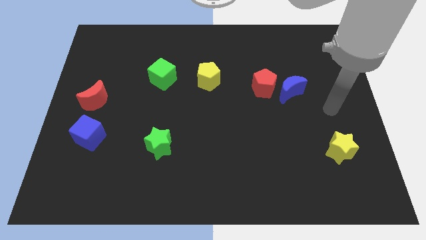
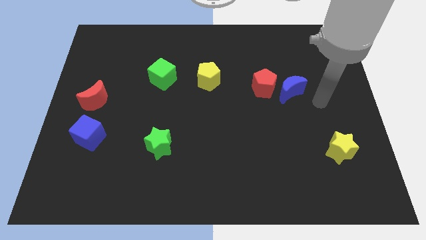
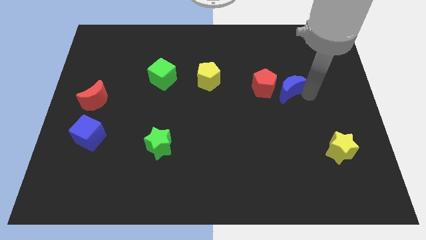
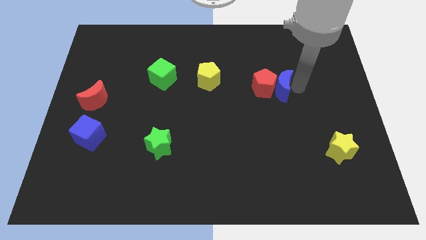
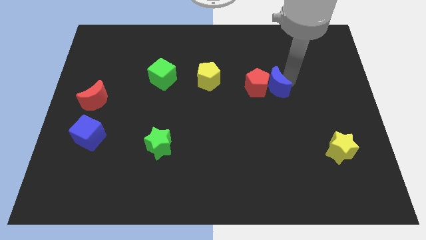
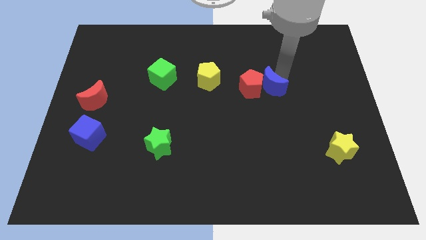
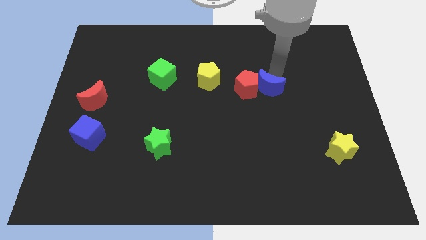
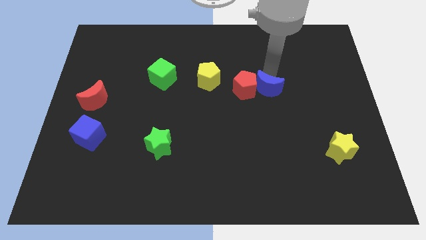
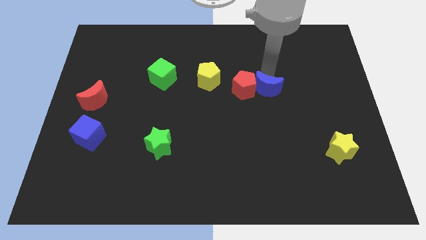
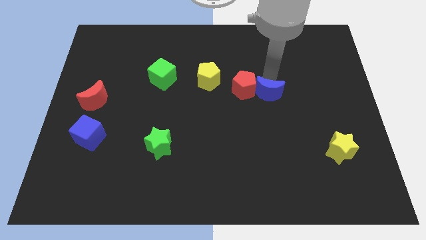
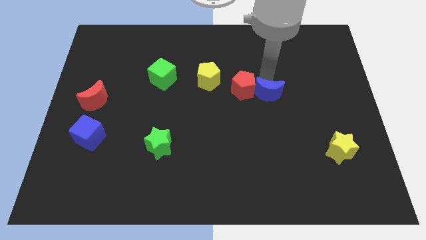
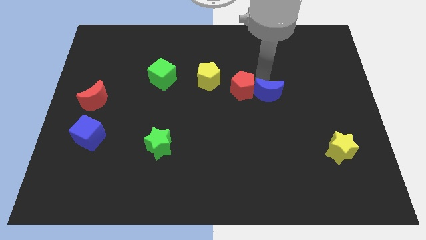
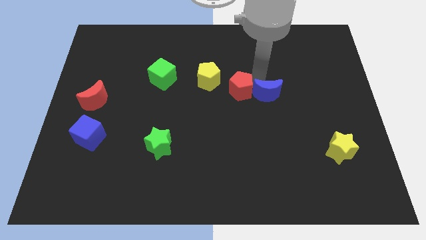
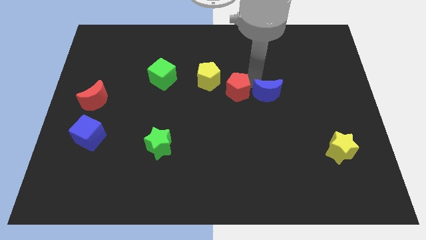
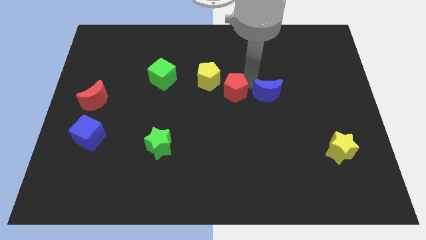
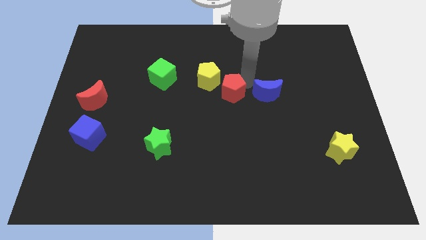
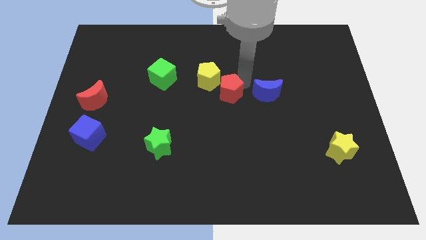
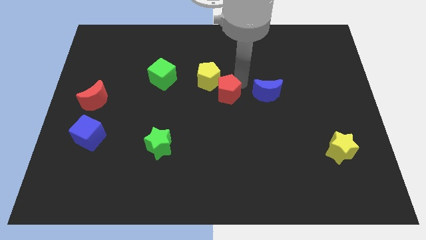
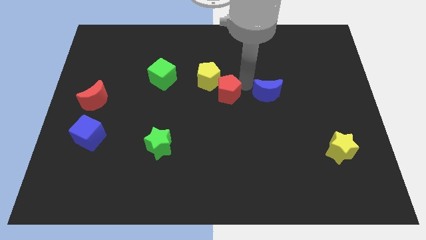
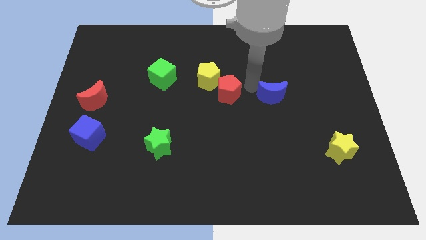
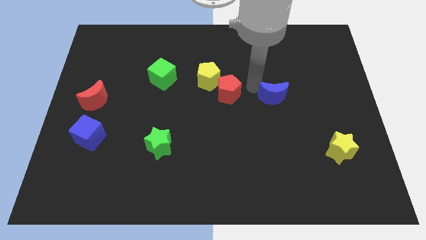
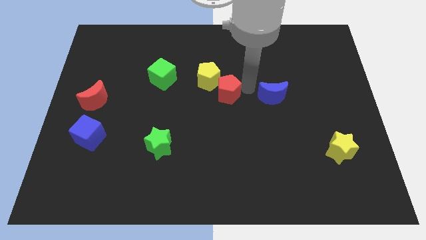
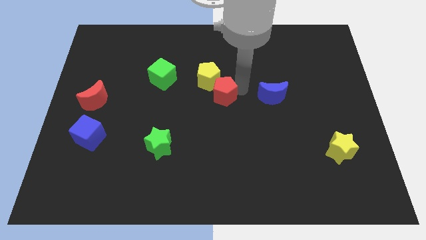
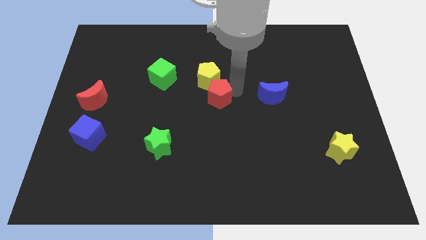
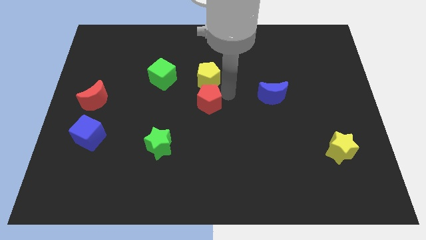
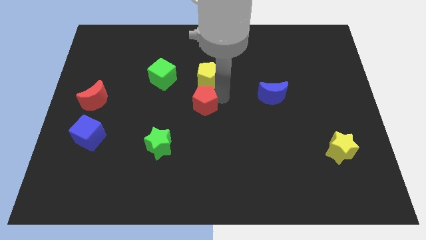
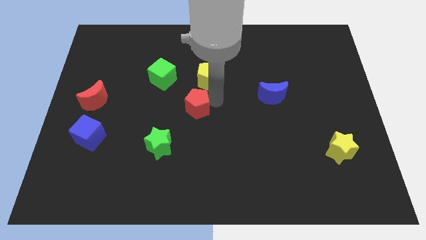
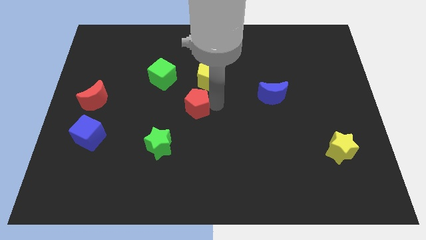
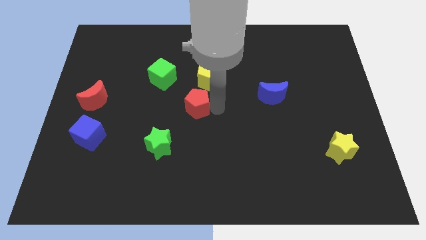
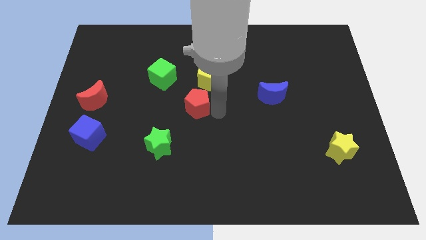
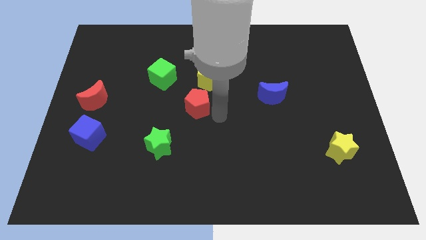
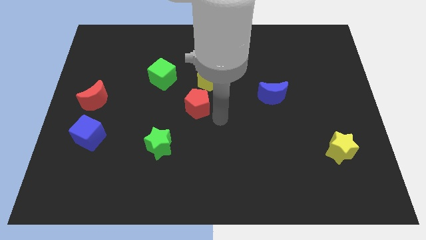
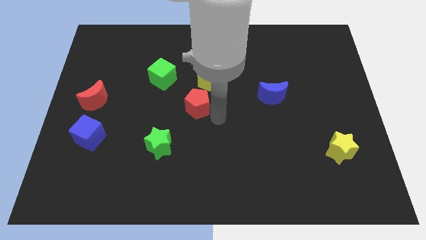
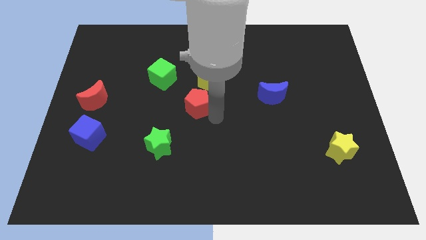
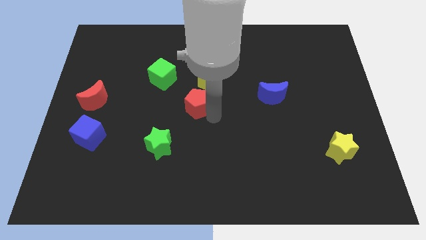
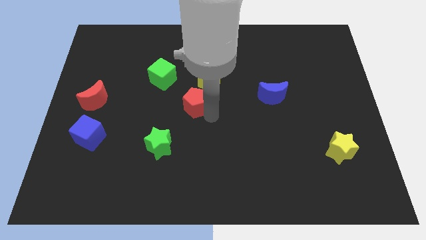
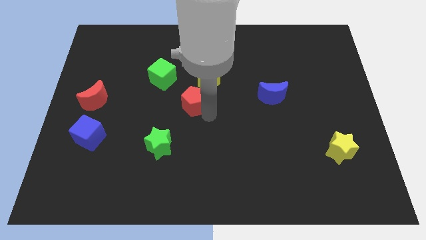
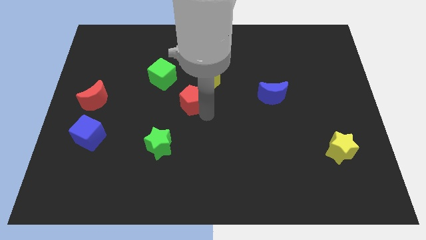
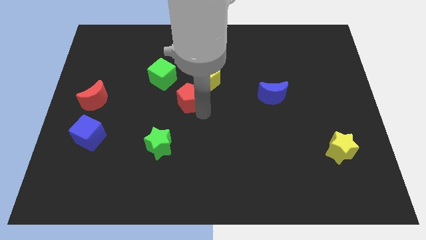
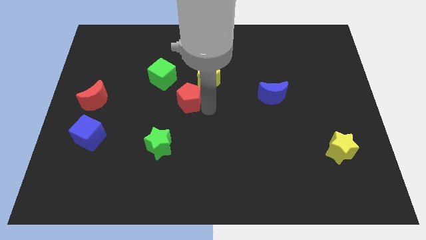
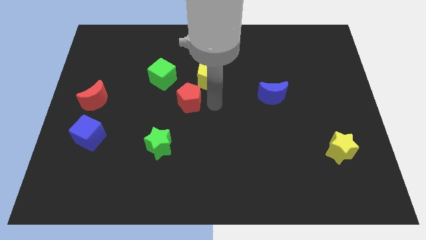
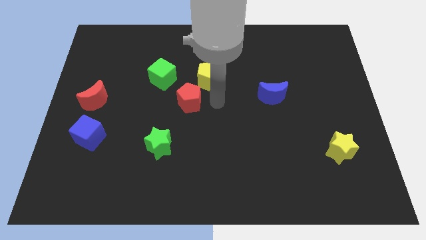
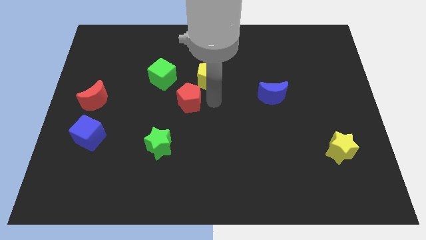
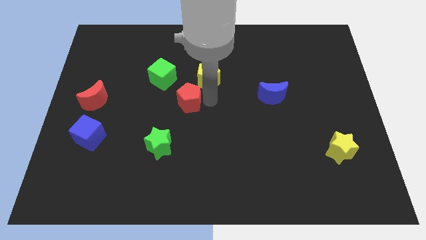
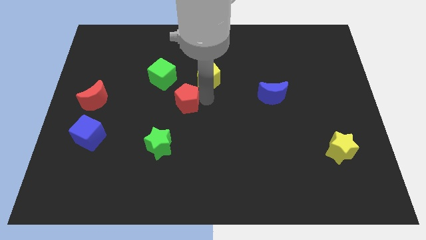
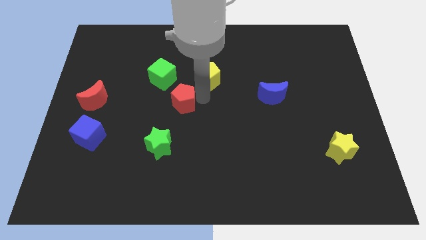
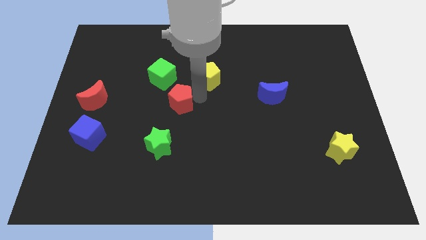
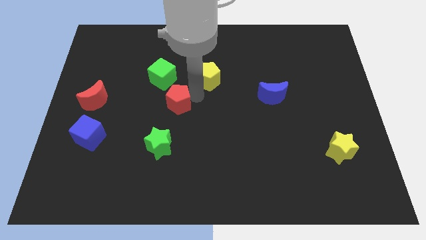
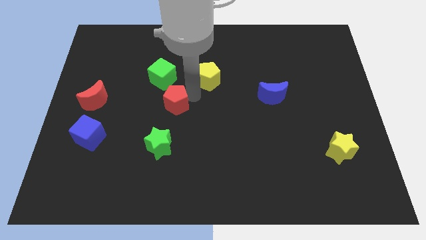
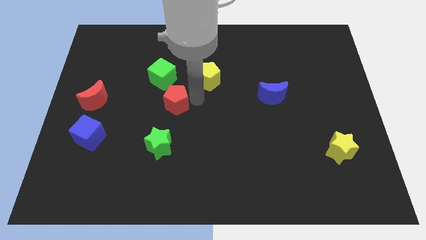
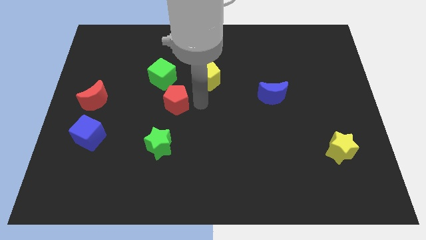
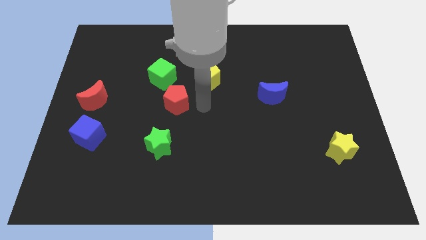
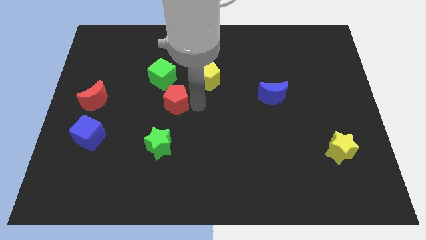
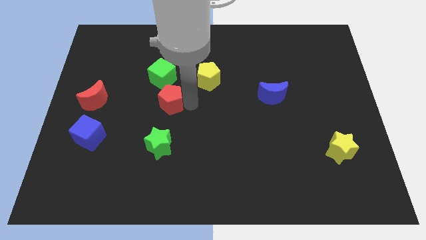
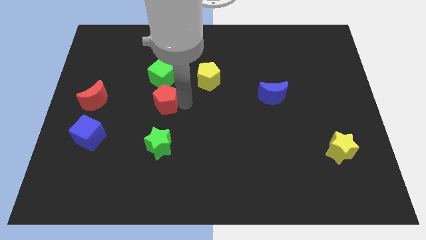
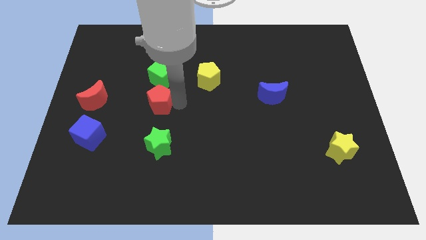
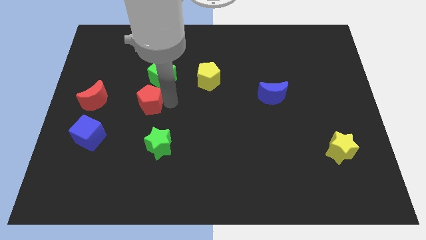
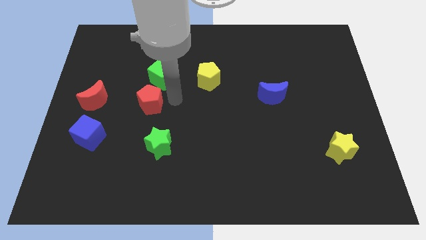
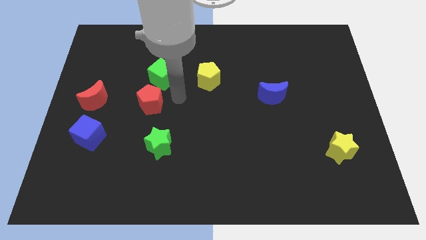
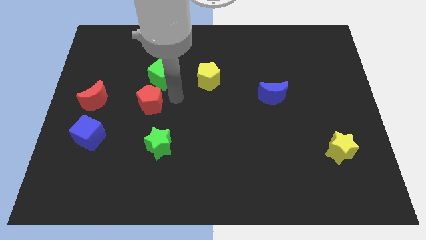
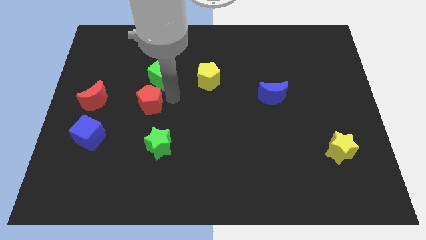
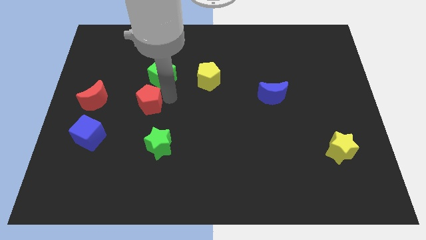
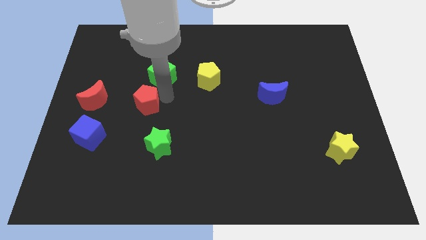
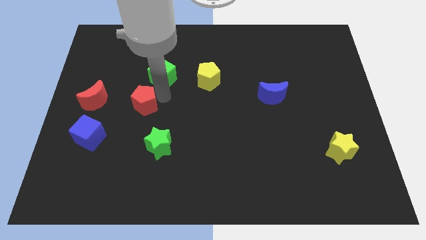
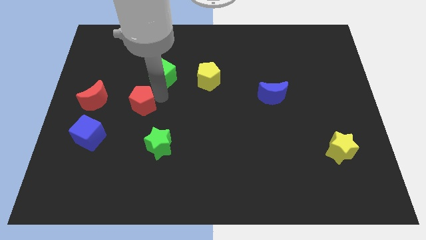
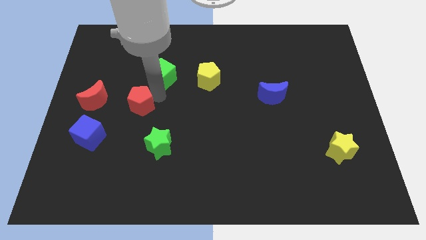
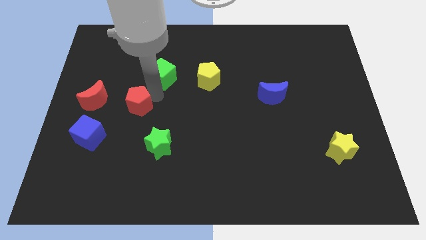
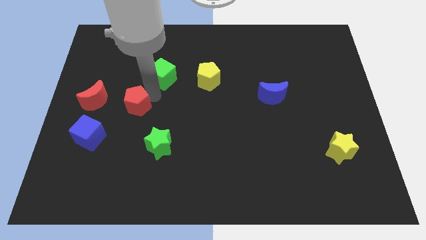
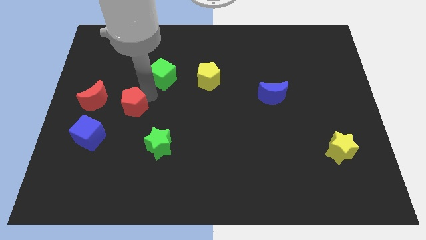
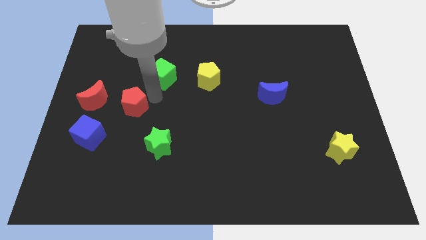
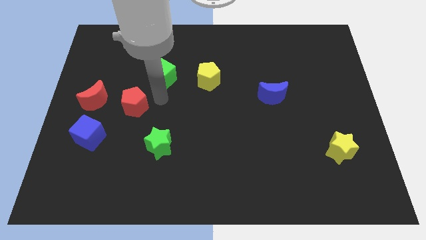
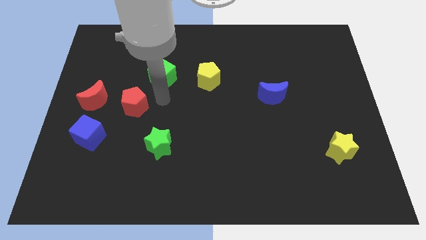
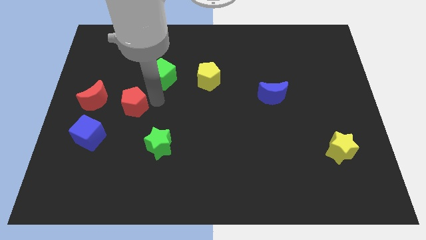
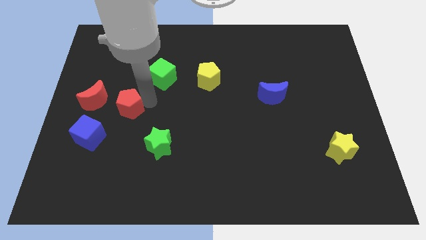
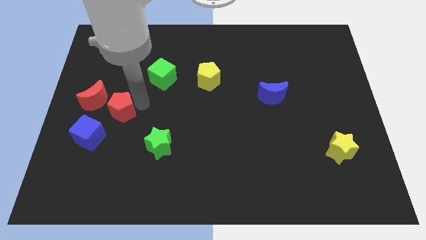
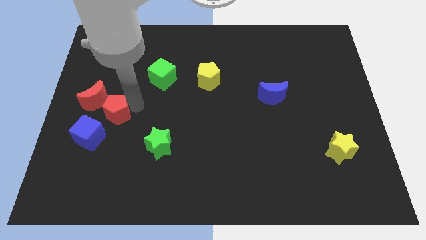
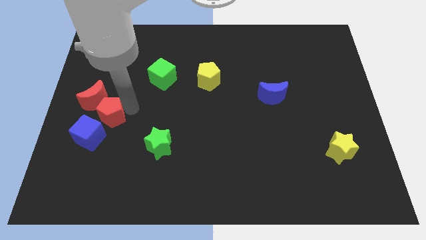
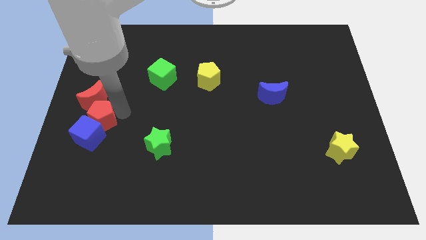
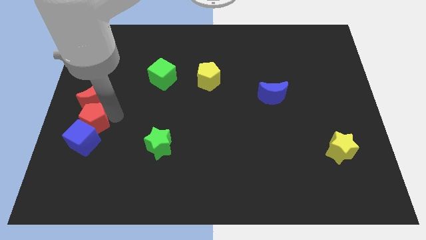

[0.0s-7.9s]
slide the red pentagon to the left side of the board
